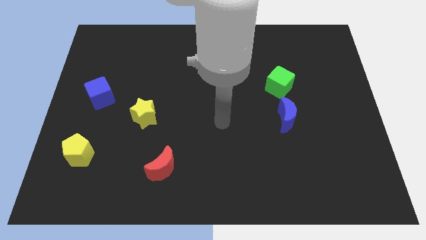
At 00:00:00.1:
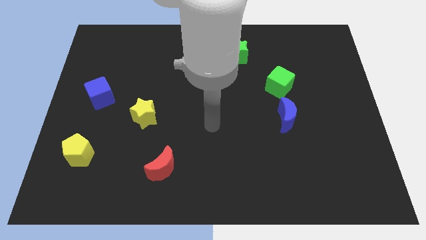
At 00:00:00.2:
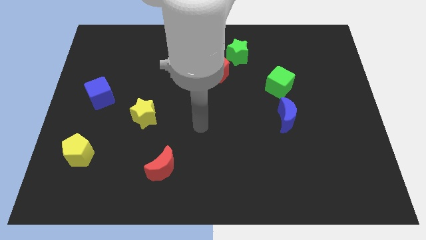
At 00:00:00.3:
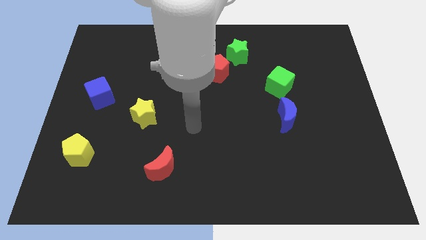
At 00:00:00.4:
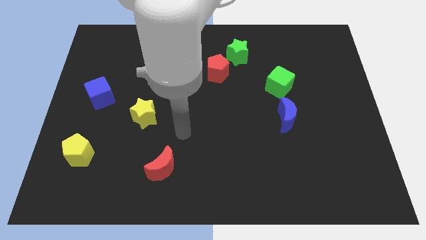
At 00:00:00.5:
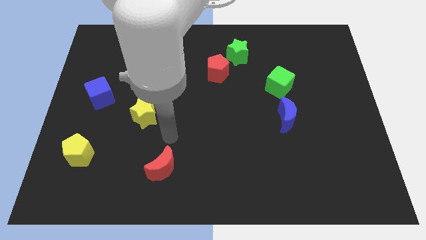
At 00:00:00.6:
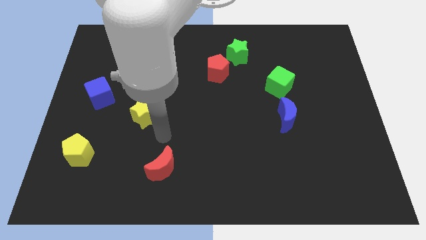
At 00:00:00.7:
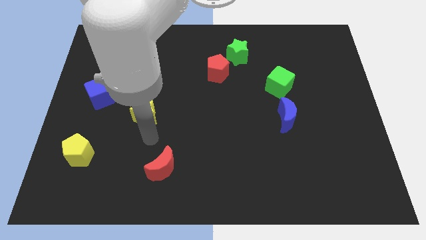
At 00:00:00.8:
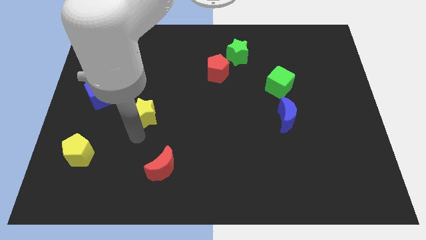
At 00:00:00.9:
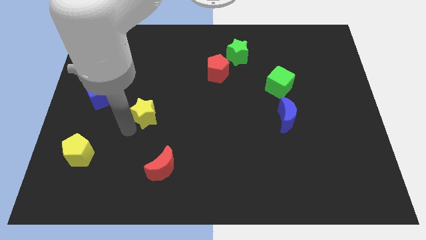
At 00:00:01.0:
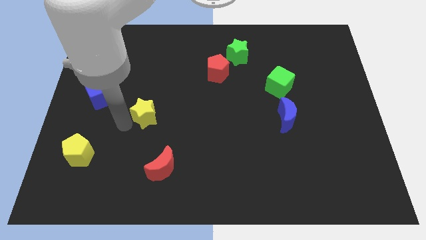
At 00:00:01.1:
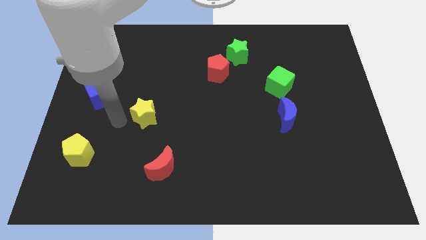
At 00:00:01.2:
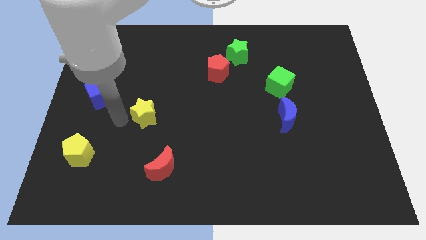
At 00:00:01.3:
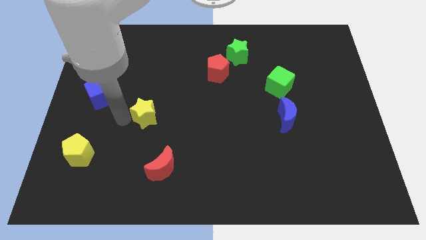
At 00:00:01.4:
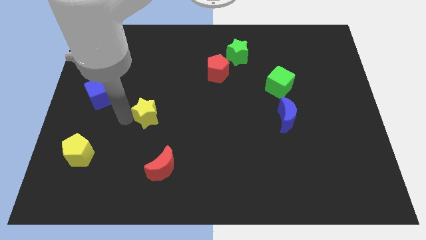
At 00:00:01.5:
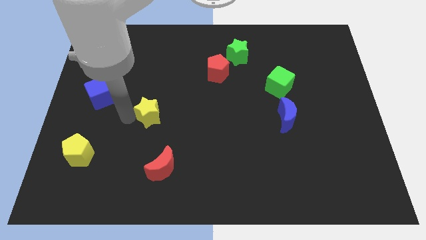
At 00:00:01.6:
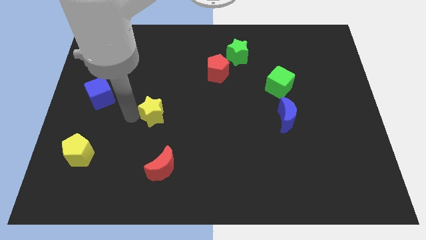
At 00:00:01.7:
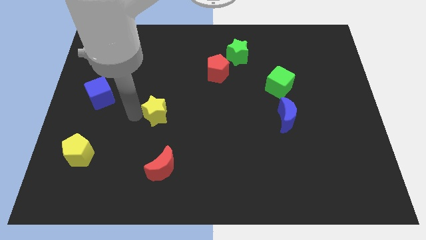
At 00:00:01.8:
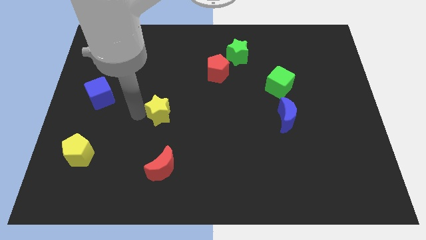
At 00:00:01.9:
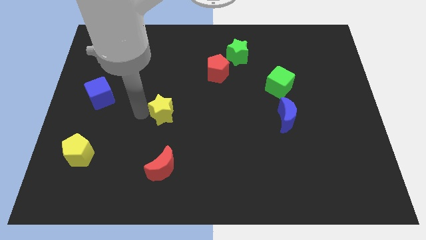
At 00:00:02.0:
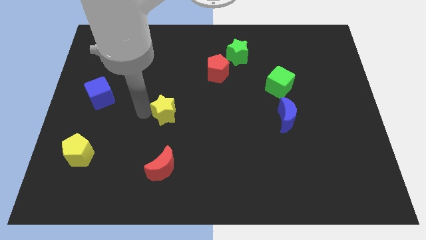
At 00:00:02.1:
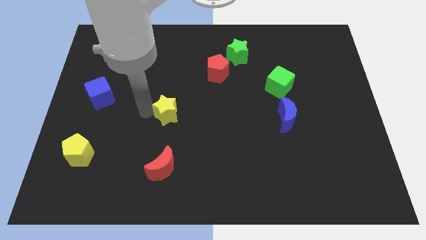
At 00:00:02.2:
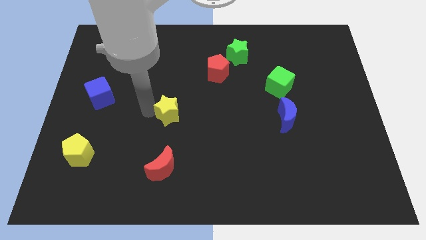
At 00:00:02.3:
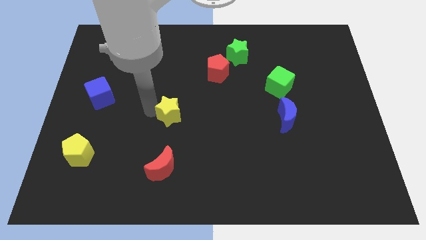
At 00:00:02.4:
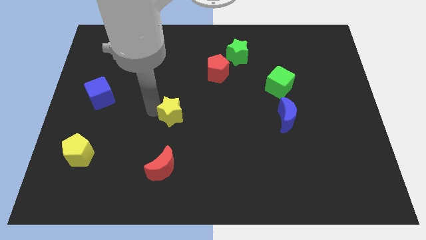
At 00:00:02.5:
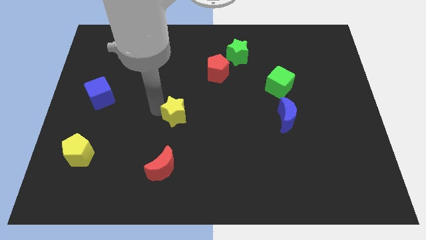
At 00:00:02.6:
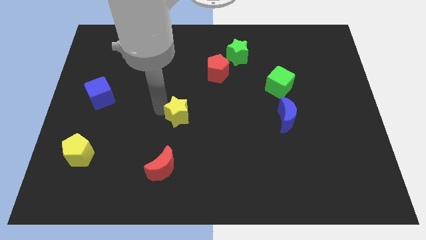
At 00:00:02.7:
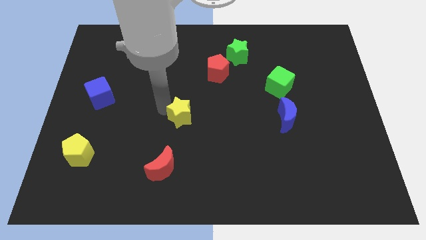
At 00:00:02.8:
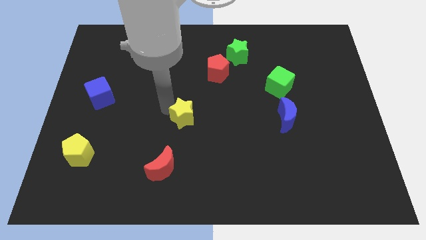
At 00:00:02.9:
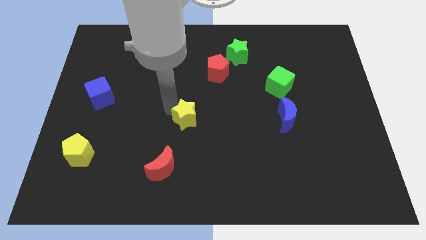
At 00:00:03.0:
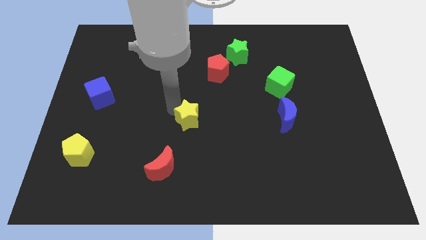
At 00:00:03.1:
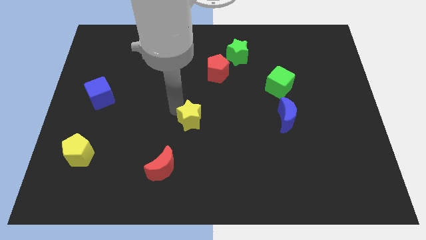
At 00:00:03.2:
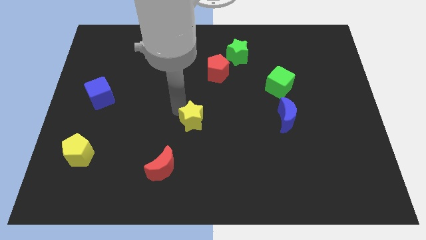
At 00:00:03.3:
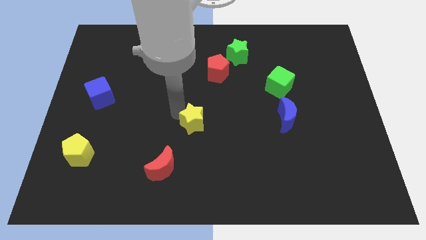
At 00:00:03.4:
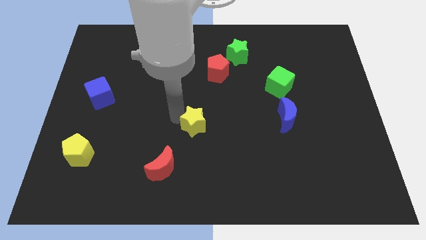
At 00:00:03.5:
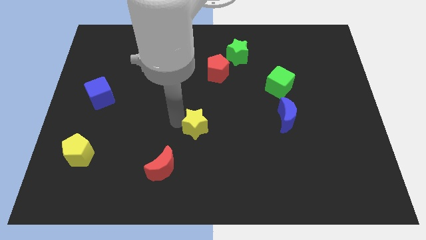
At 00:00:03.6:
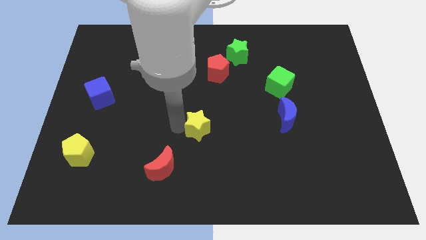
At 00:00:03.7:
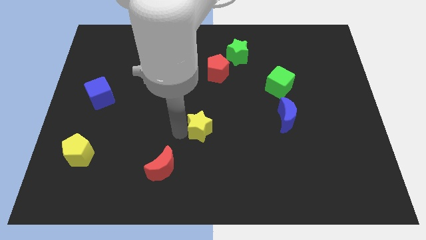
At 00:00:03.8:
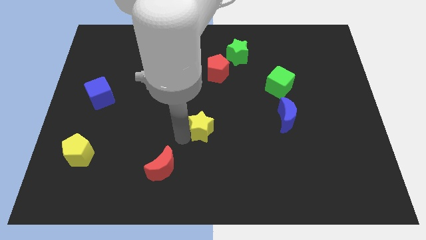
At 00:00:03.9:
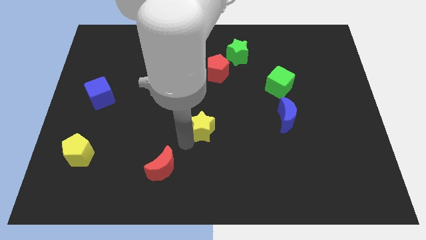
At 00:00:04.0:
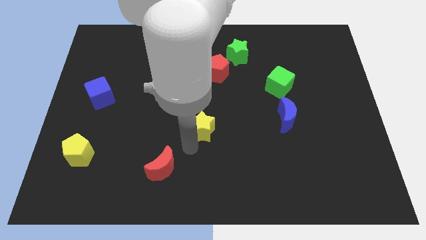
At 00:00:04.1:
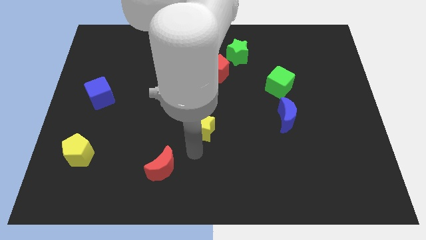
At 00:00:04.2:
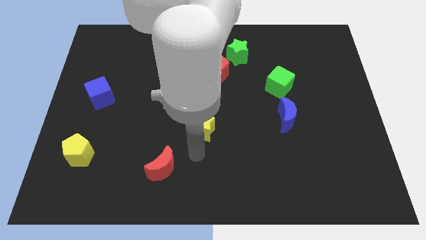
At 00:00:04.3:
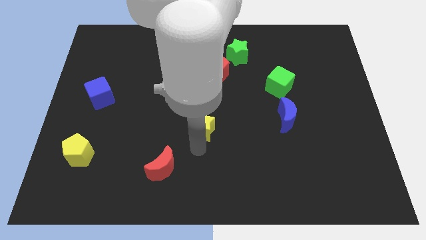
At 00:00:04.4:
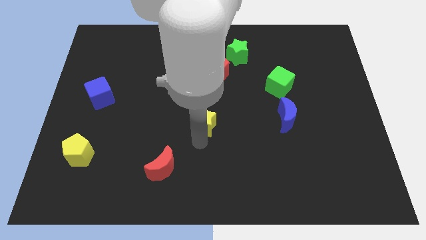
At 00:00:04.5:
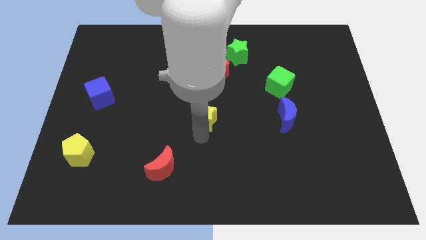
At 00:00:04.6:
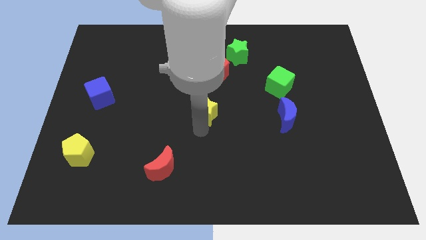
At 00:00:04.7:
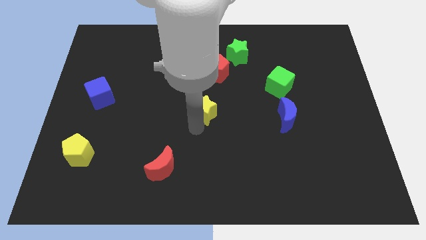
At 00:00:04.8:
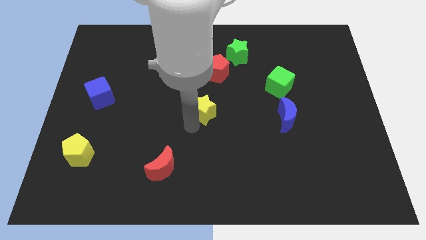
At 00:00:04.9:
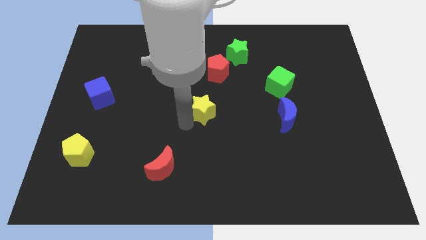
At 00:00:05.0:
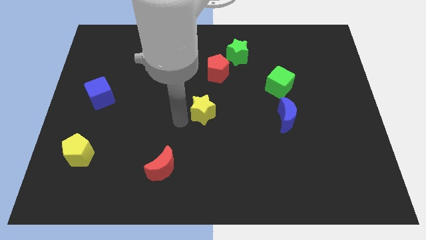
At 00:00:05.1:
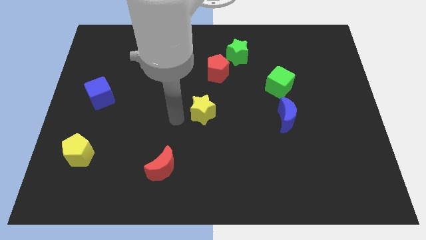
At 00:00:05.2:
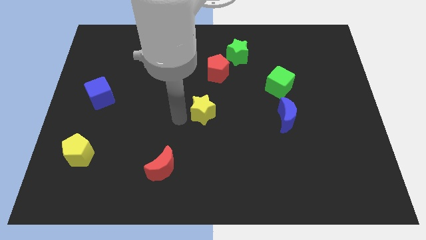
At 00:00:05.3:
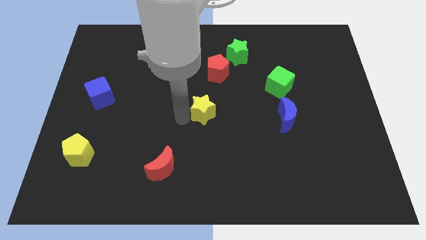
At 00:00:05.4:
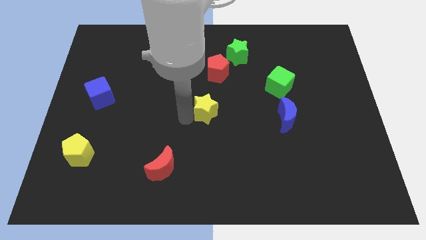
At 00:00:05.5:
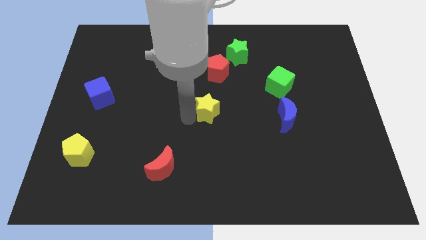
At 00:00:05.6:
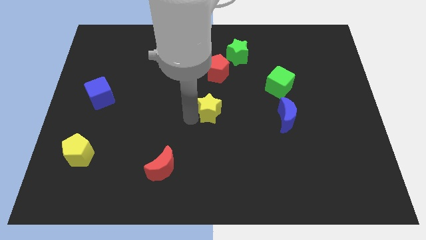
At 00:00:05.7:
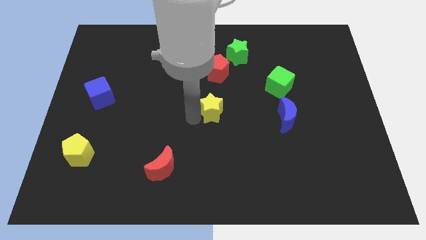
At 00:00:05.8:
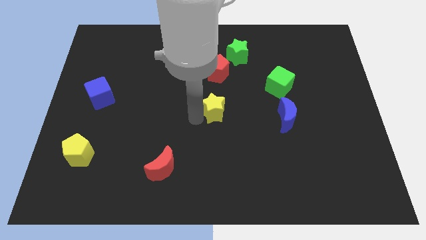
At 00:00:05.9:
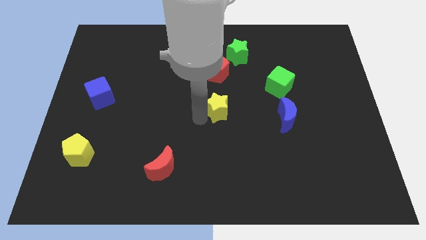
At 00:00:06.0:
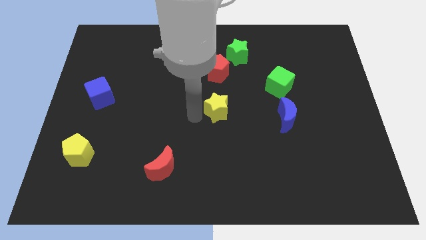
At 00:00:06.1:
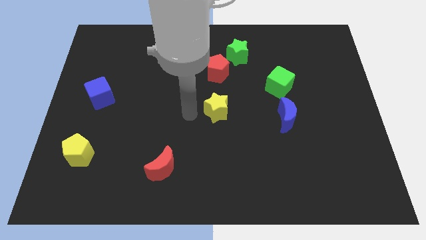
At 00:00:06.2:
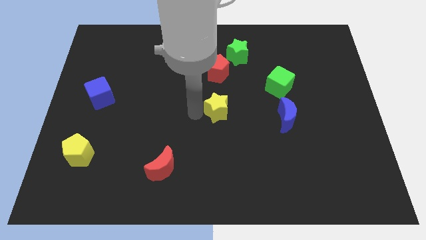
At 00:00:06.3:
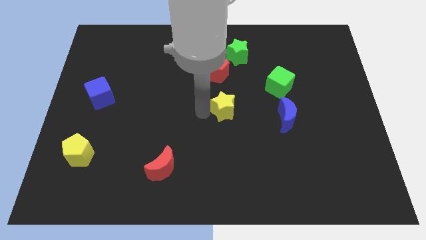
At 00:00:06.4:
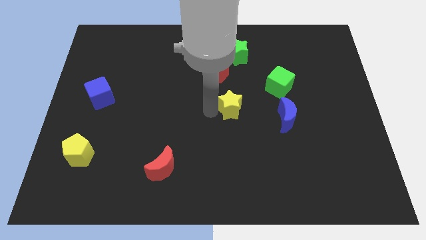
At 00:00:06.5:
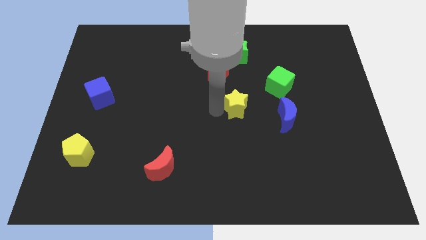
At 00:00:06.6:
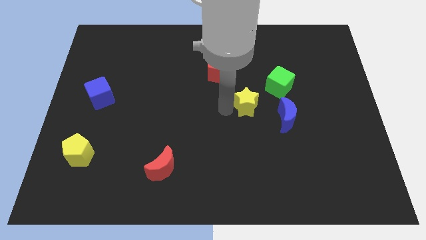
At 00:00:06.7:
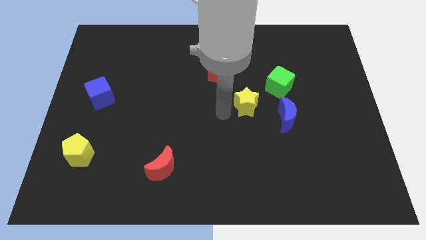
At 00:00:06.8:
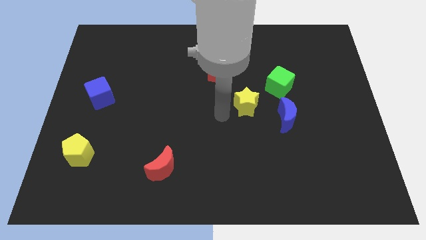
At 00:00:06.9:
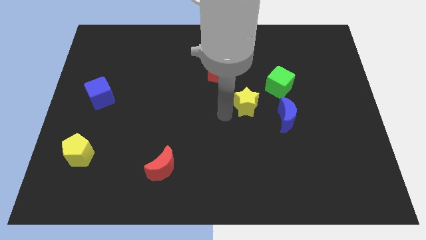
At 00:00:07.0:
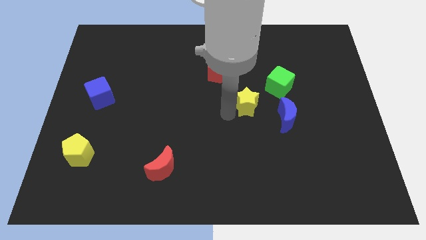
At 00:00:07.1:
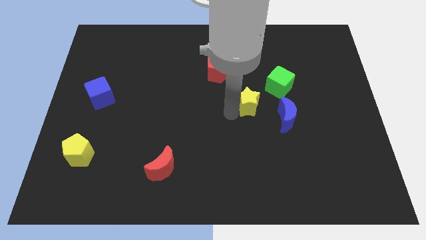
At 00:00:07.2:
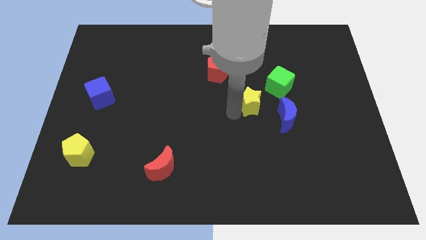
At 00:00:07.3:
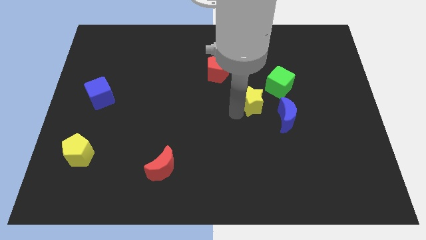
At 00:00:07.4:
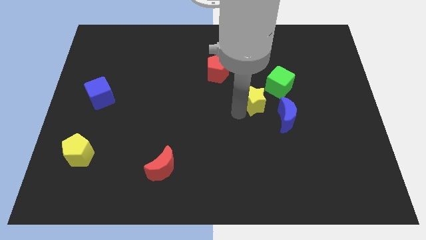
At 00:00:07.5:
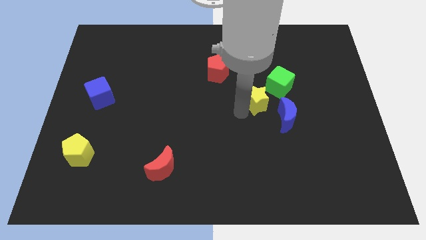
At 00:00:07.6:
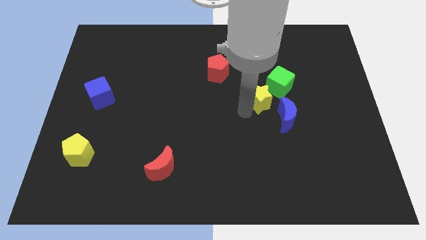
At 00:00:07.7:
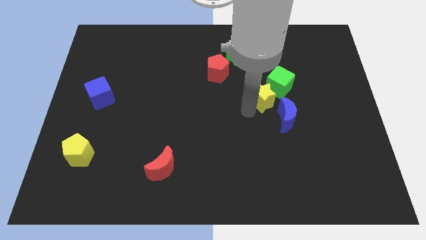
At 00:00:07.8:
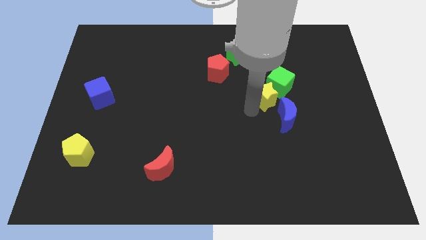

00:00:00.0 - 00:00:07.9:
move the yellow star to the green cube
